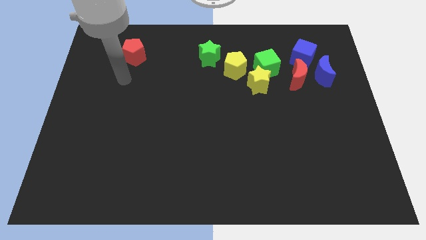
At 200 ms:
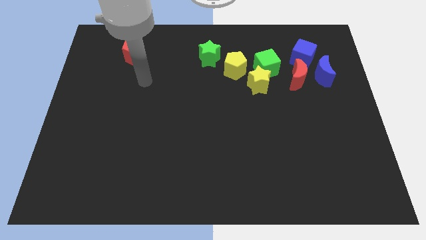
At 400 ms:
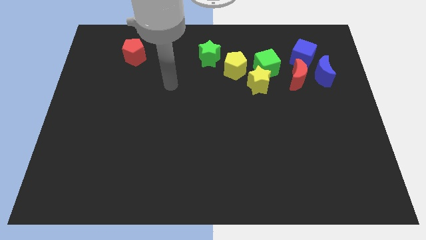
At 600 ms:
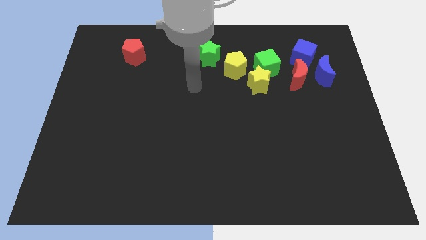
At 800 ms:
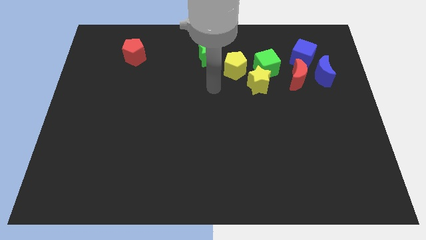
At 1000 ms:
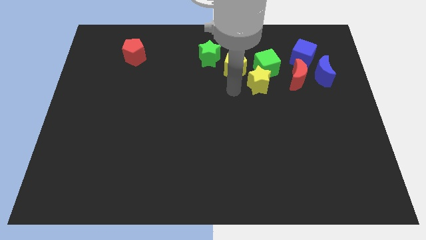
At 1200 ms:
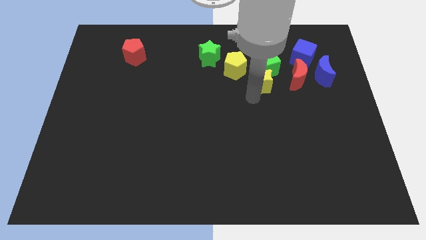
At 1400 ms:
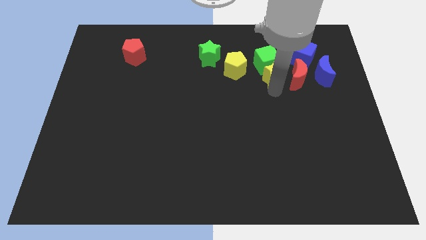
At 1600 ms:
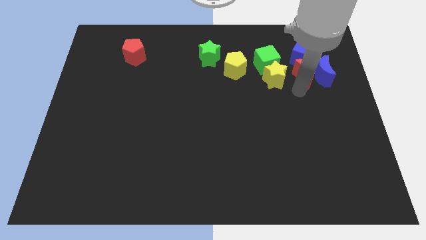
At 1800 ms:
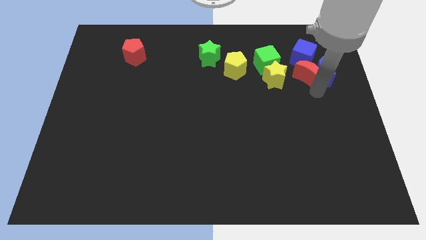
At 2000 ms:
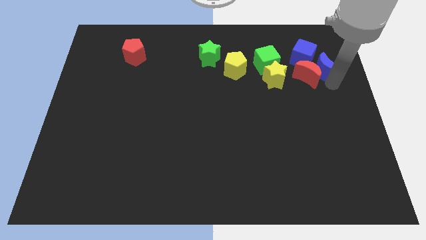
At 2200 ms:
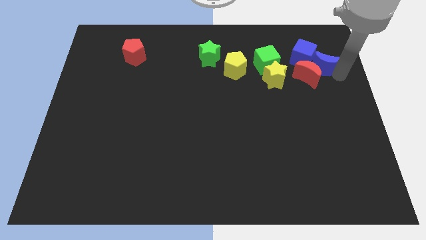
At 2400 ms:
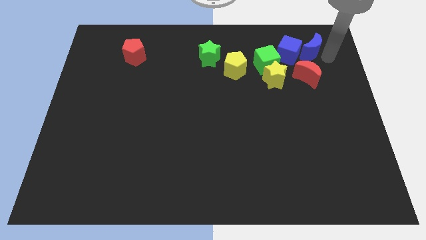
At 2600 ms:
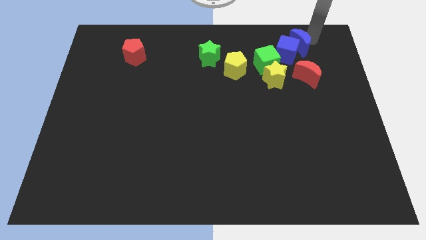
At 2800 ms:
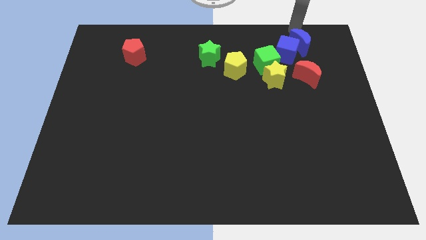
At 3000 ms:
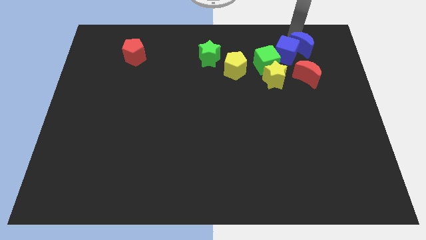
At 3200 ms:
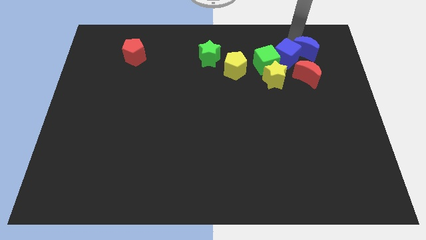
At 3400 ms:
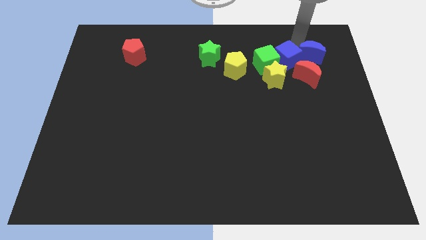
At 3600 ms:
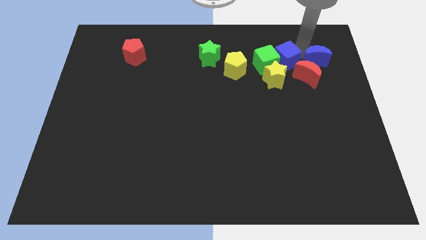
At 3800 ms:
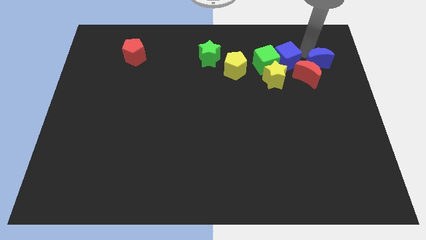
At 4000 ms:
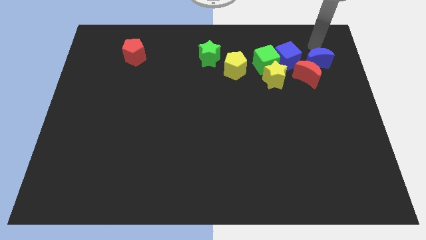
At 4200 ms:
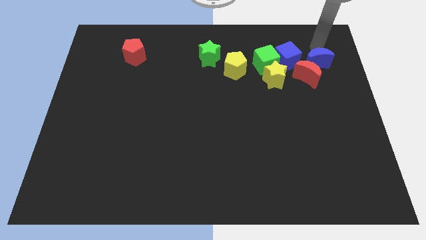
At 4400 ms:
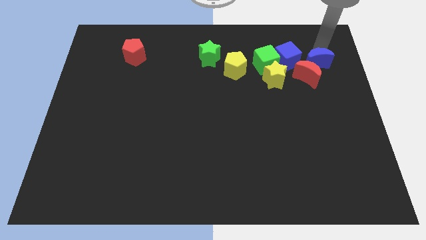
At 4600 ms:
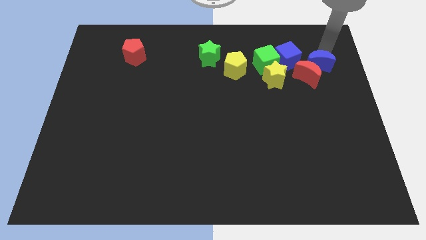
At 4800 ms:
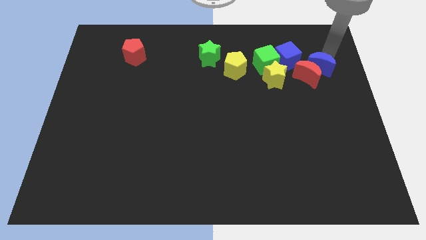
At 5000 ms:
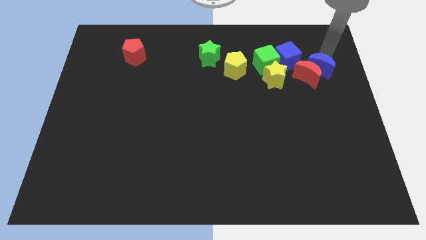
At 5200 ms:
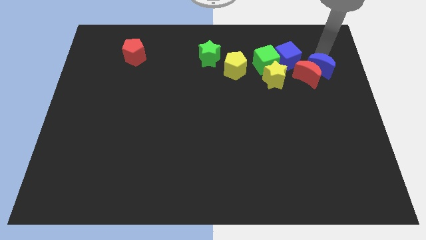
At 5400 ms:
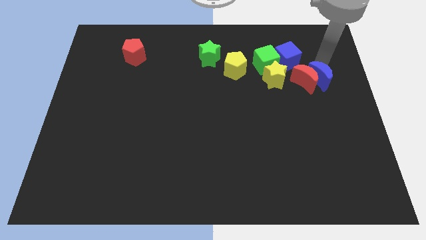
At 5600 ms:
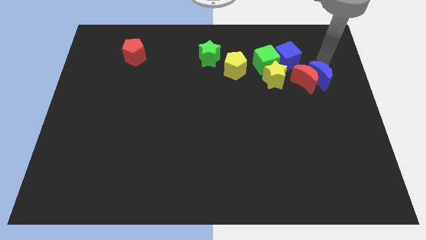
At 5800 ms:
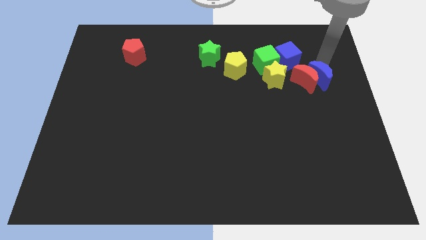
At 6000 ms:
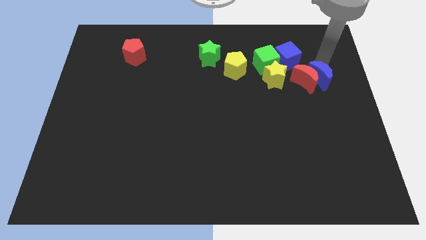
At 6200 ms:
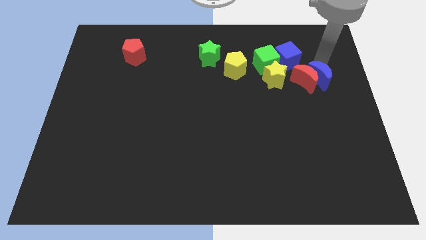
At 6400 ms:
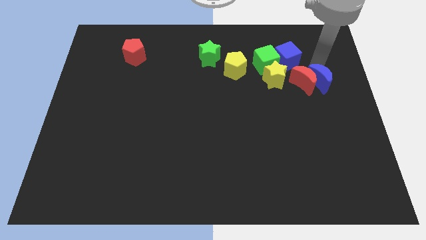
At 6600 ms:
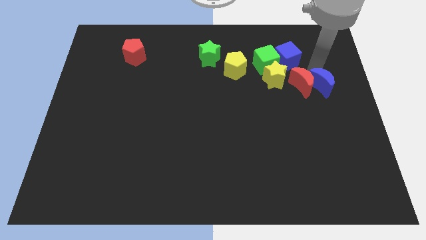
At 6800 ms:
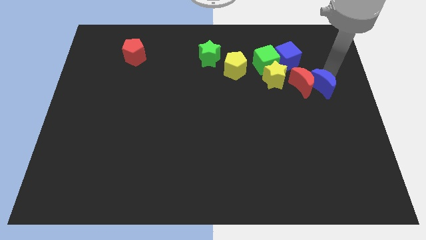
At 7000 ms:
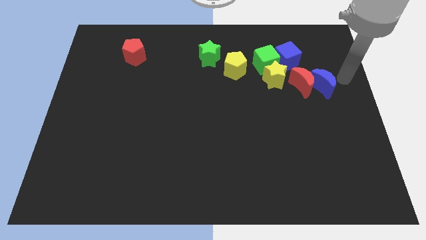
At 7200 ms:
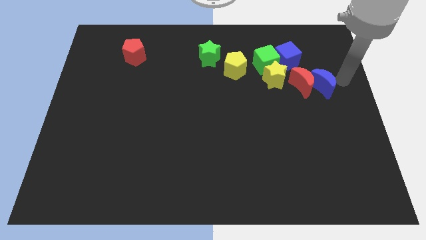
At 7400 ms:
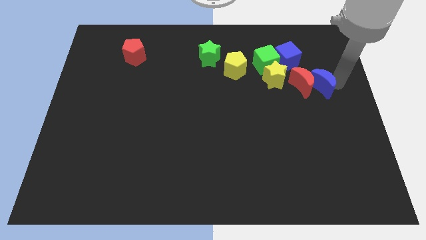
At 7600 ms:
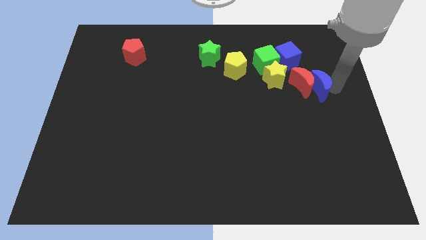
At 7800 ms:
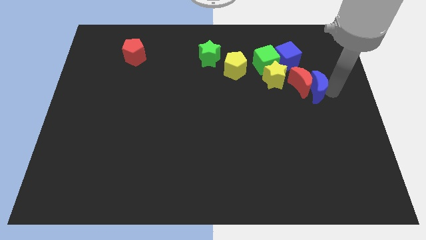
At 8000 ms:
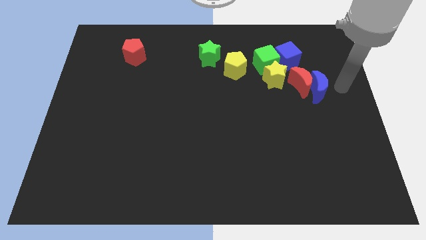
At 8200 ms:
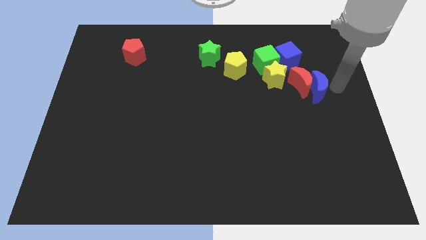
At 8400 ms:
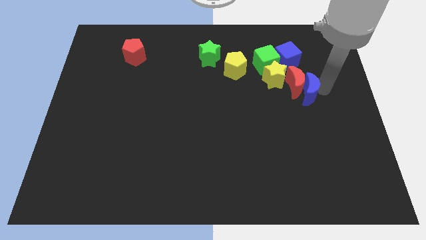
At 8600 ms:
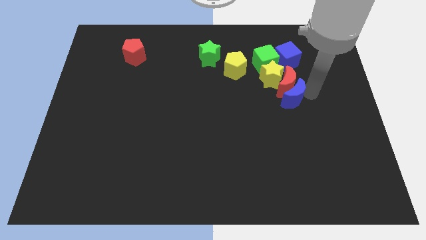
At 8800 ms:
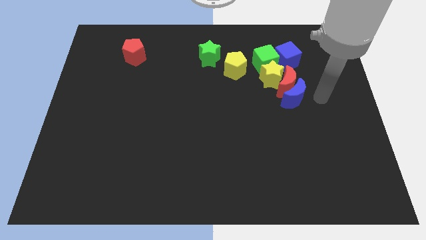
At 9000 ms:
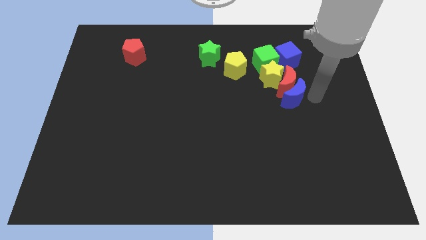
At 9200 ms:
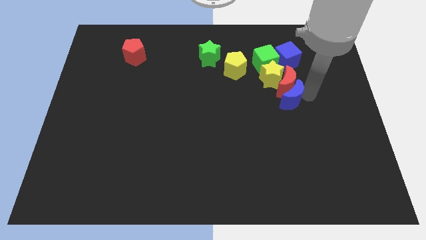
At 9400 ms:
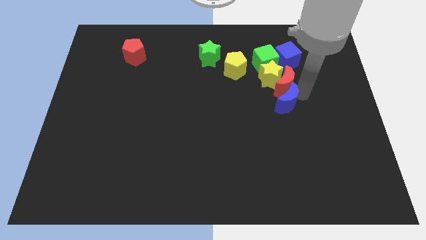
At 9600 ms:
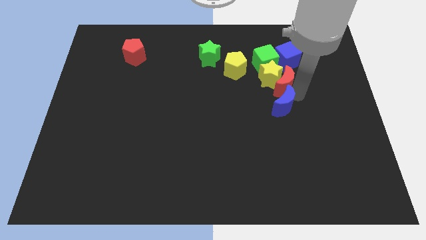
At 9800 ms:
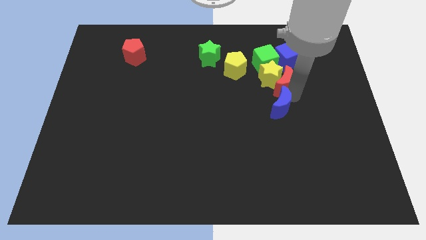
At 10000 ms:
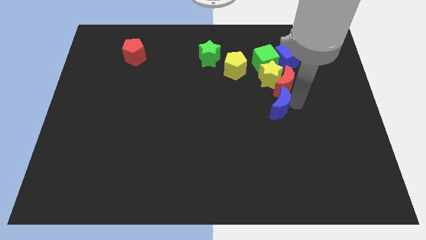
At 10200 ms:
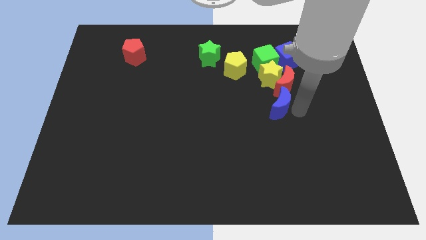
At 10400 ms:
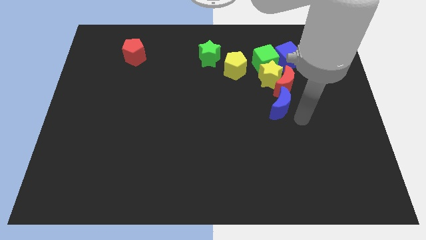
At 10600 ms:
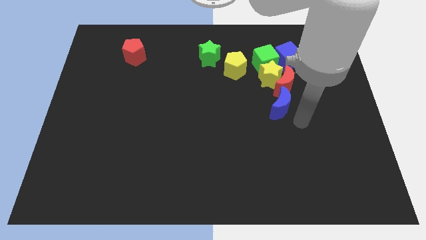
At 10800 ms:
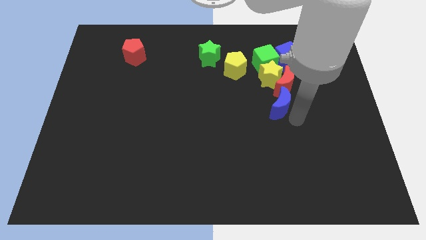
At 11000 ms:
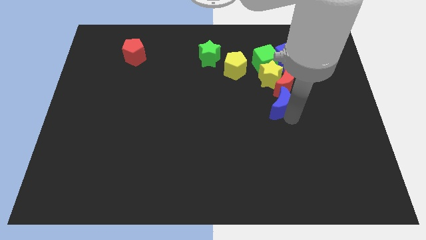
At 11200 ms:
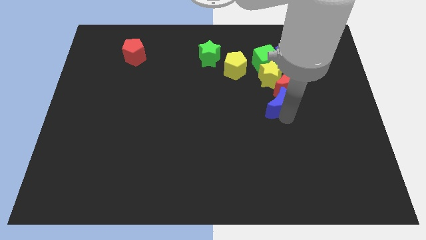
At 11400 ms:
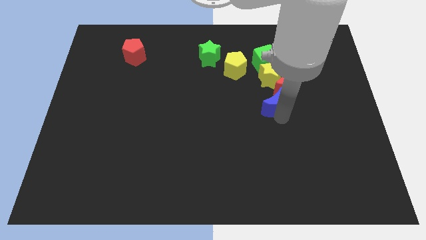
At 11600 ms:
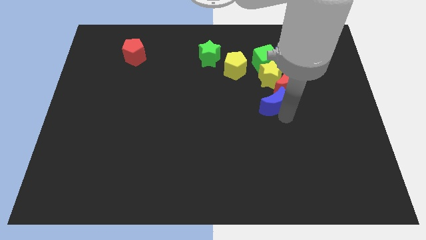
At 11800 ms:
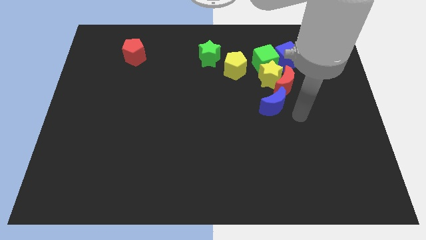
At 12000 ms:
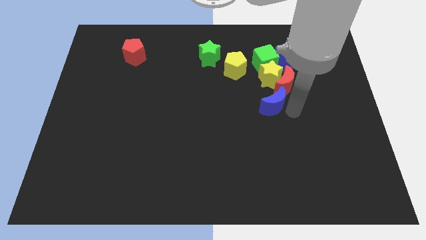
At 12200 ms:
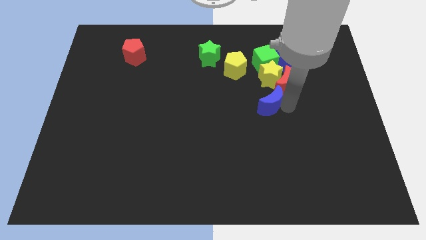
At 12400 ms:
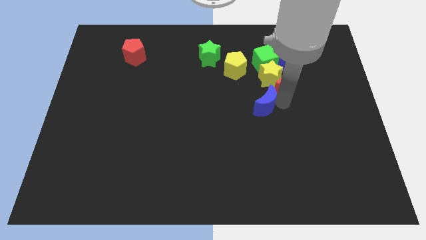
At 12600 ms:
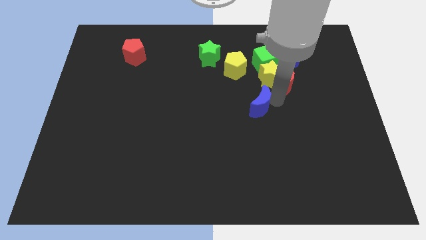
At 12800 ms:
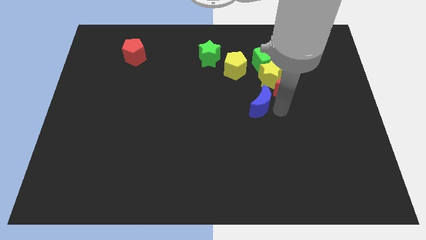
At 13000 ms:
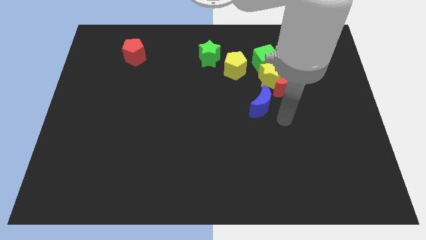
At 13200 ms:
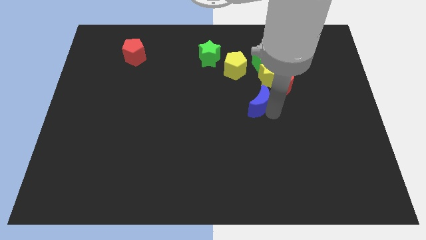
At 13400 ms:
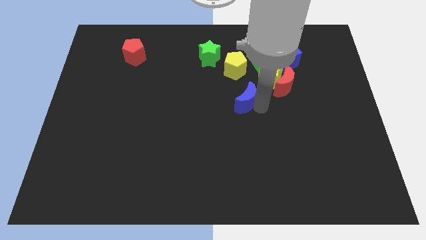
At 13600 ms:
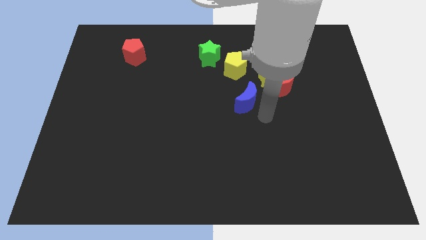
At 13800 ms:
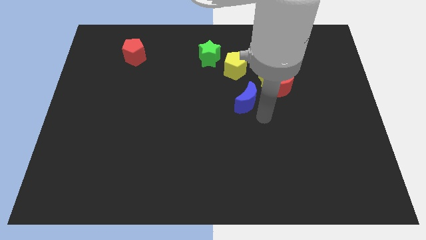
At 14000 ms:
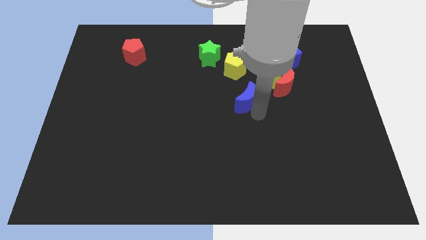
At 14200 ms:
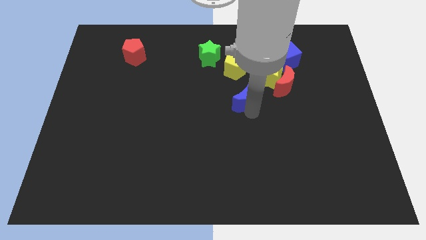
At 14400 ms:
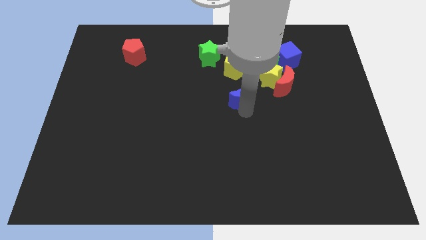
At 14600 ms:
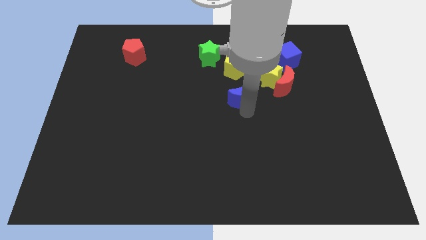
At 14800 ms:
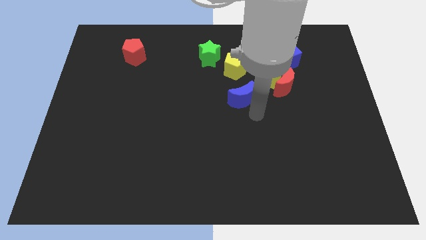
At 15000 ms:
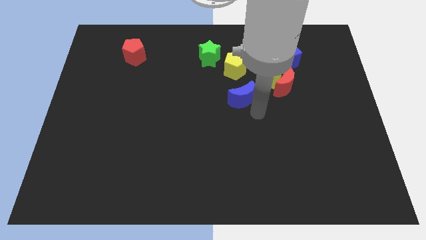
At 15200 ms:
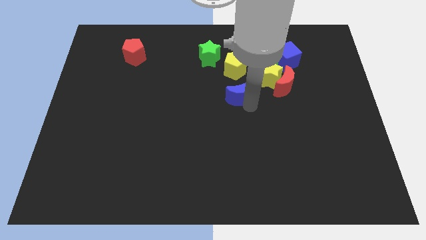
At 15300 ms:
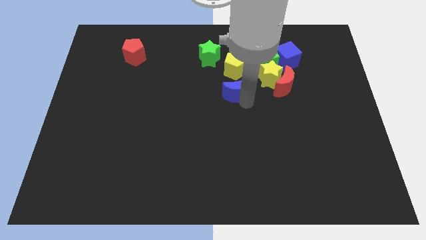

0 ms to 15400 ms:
push the blue moon left

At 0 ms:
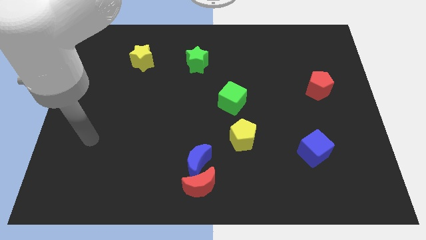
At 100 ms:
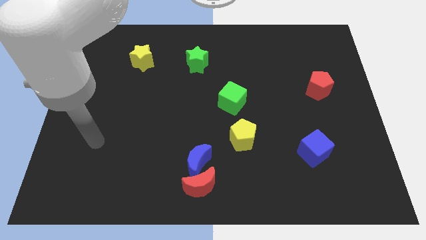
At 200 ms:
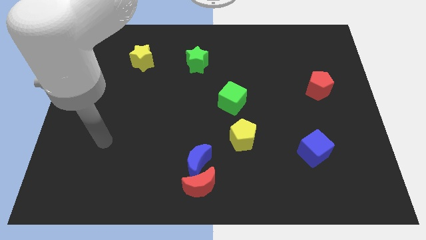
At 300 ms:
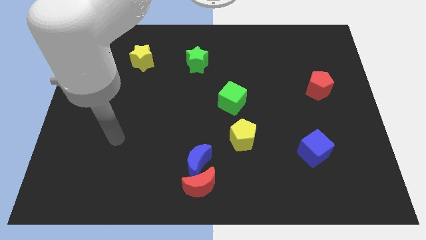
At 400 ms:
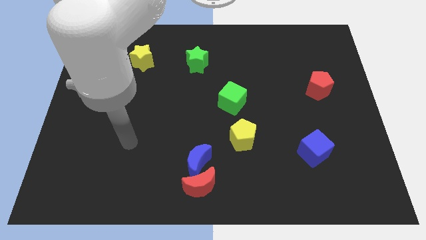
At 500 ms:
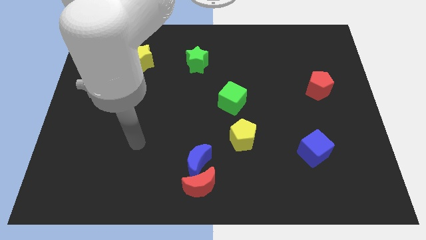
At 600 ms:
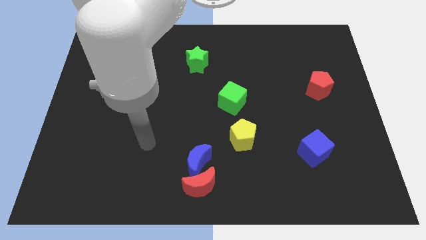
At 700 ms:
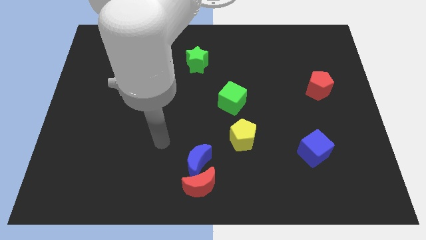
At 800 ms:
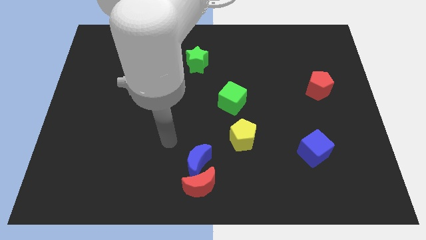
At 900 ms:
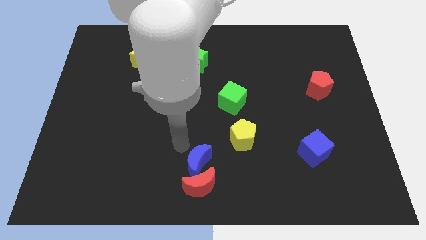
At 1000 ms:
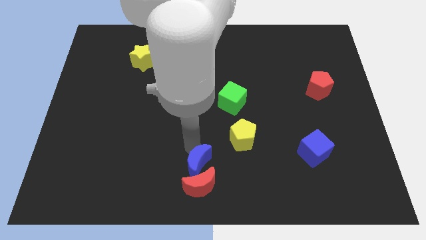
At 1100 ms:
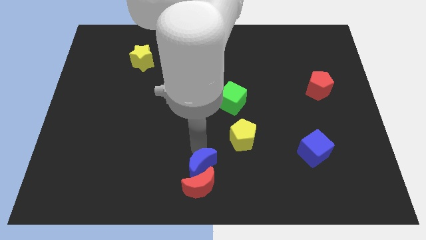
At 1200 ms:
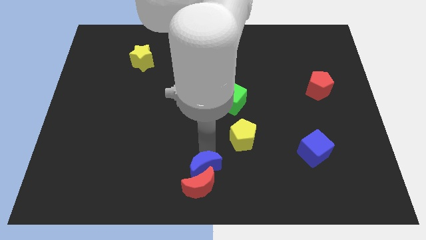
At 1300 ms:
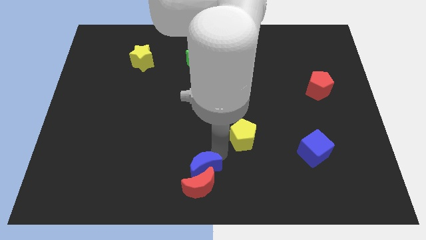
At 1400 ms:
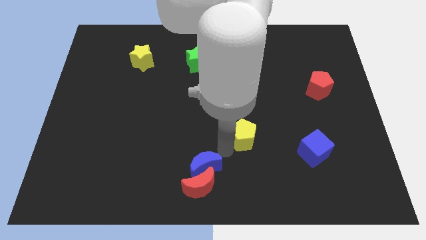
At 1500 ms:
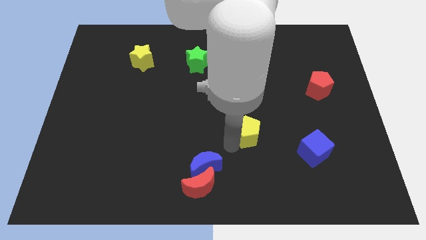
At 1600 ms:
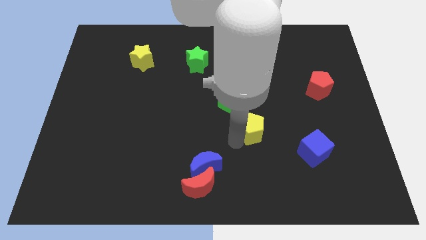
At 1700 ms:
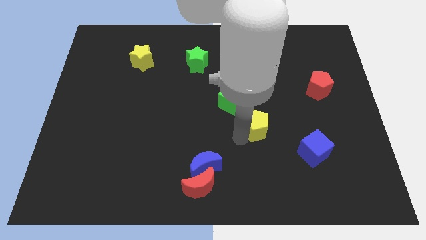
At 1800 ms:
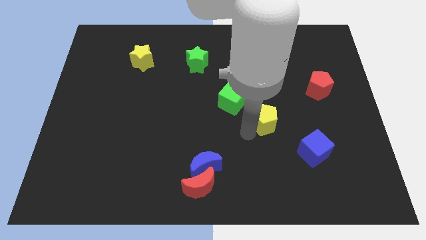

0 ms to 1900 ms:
move the yellow pentagon diagonally up and to the right a bit
